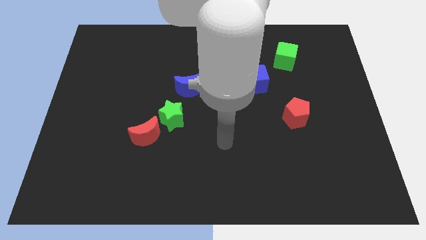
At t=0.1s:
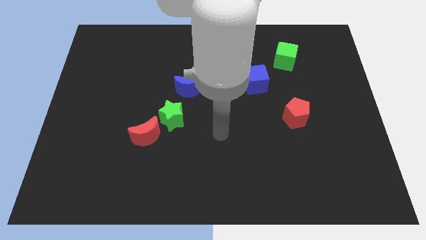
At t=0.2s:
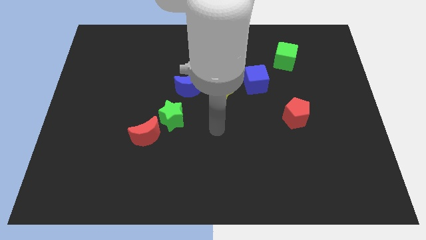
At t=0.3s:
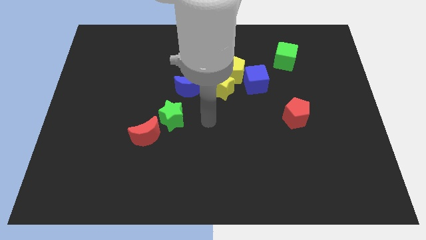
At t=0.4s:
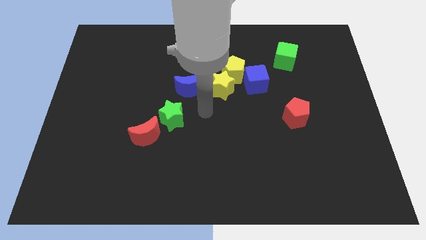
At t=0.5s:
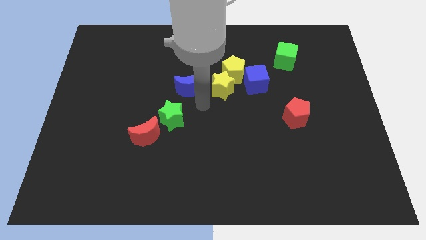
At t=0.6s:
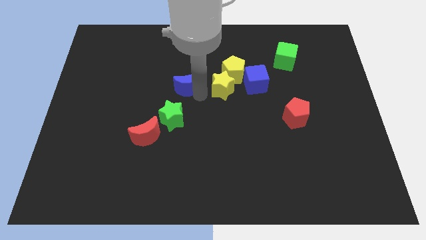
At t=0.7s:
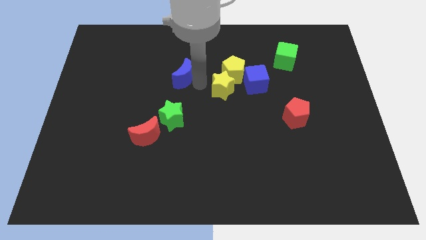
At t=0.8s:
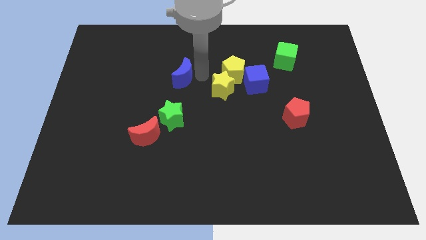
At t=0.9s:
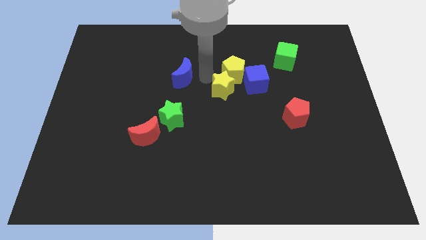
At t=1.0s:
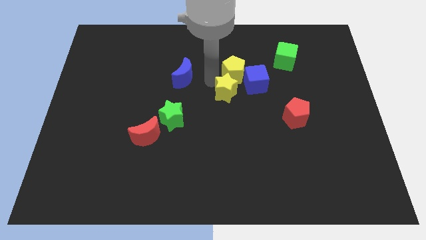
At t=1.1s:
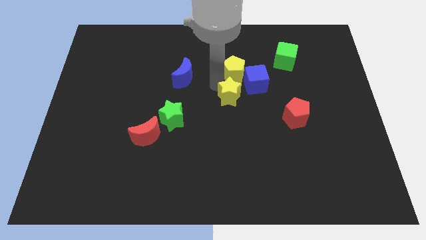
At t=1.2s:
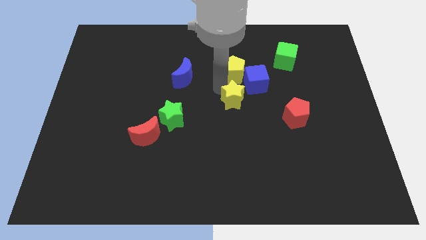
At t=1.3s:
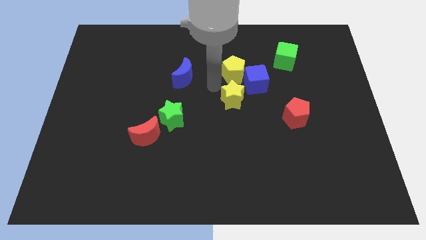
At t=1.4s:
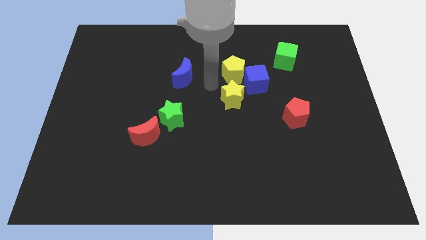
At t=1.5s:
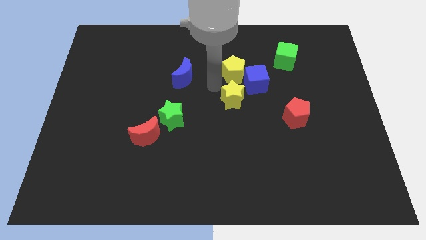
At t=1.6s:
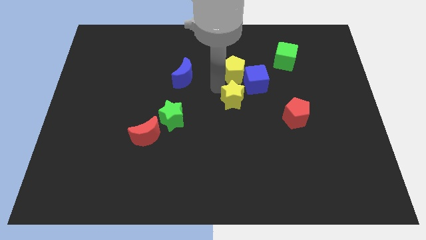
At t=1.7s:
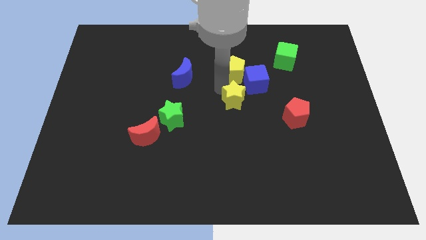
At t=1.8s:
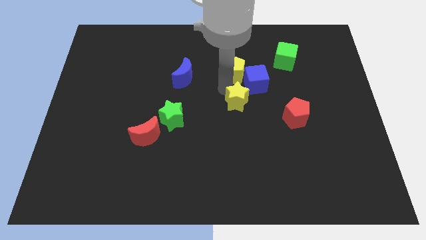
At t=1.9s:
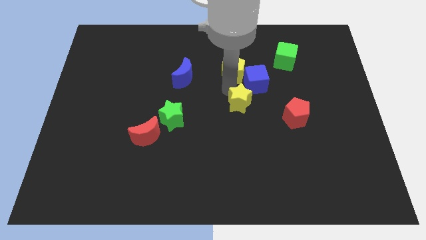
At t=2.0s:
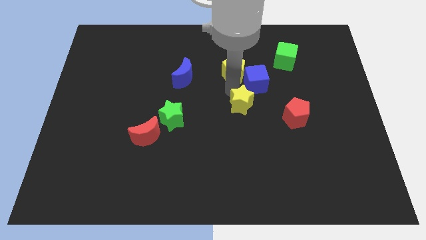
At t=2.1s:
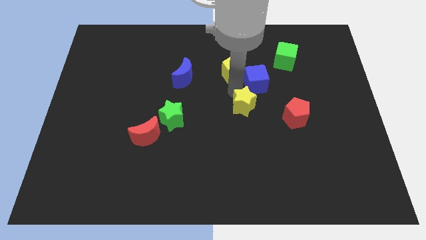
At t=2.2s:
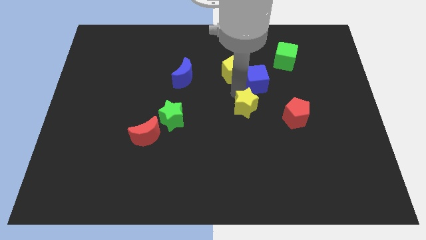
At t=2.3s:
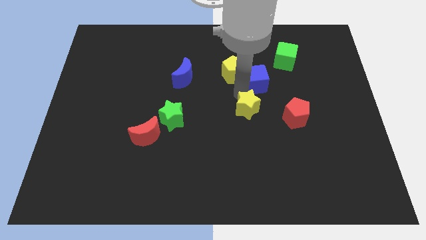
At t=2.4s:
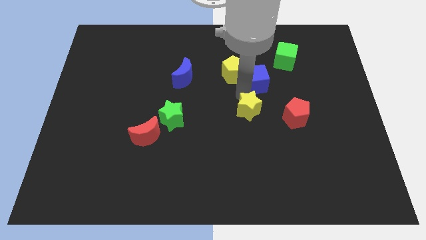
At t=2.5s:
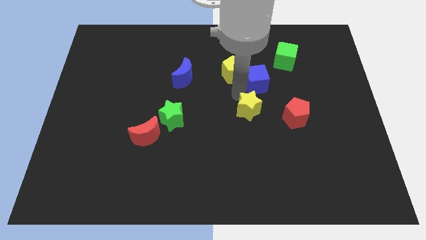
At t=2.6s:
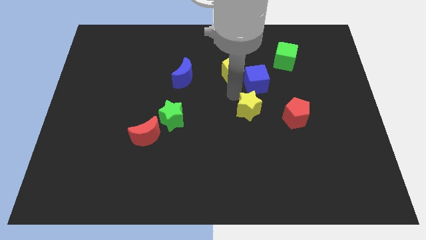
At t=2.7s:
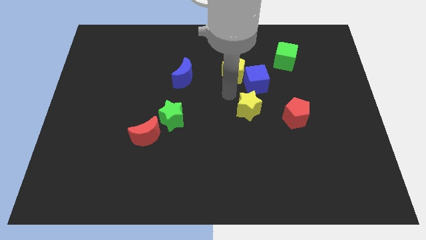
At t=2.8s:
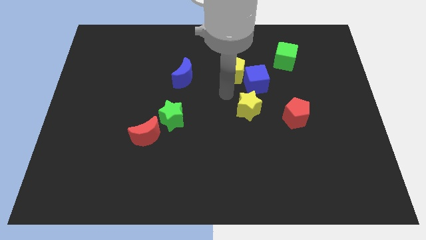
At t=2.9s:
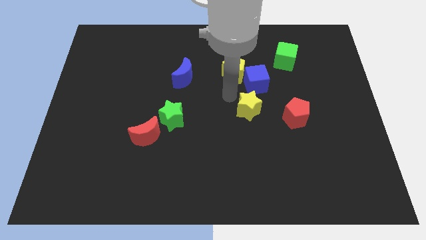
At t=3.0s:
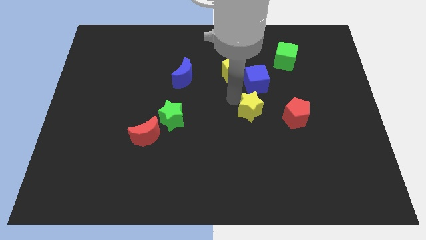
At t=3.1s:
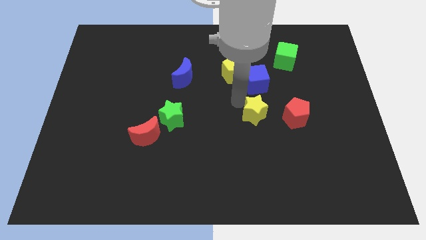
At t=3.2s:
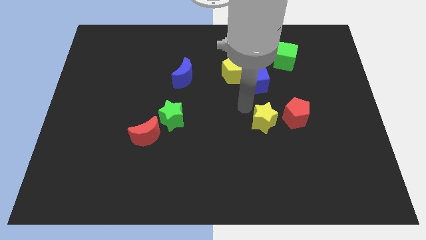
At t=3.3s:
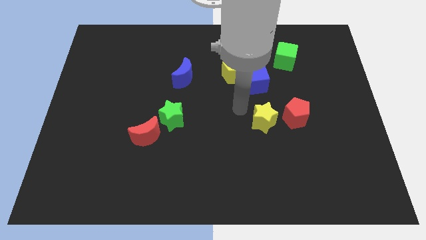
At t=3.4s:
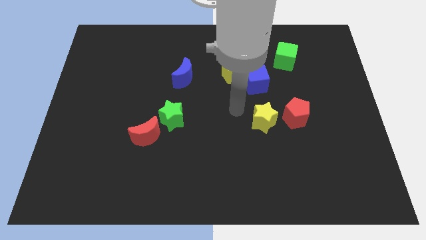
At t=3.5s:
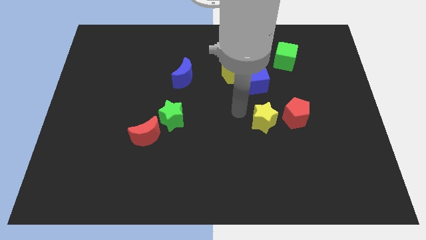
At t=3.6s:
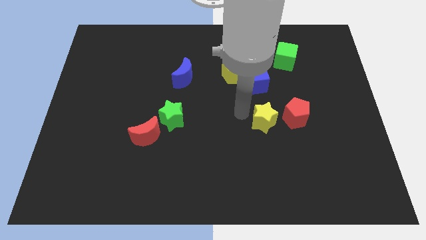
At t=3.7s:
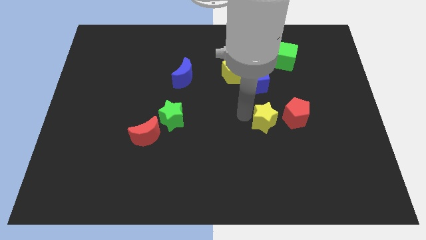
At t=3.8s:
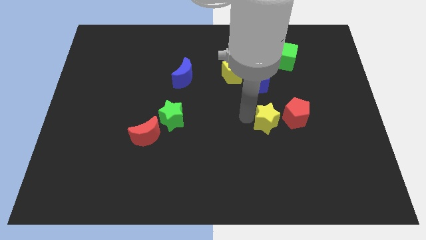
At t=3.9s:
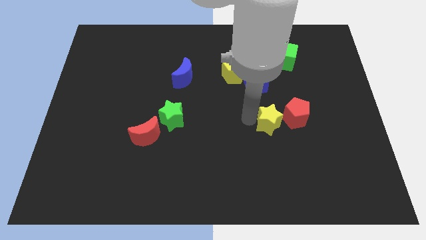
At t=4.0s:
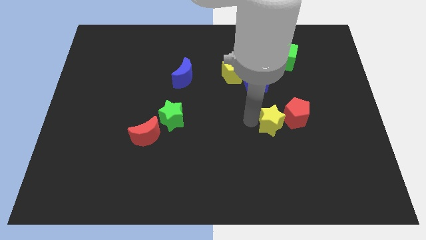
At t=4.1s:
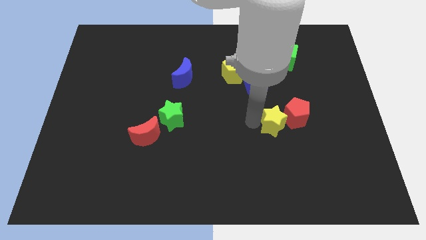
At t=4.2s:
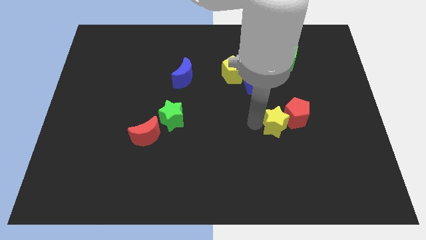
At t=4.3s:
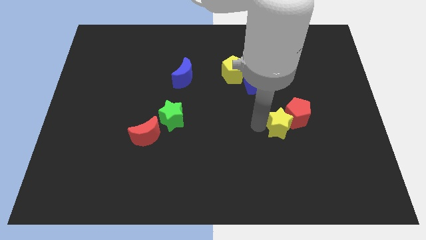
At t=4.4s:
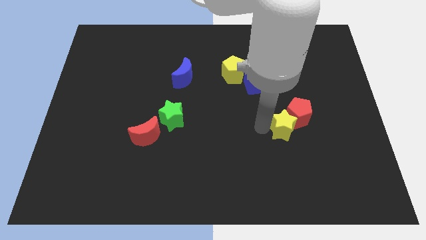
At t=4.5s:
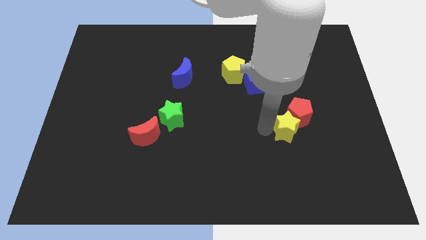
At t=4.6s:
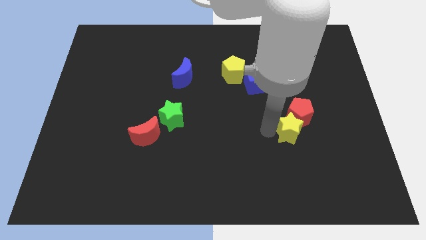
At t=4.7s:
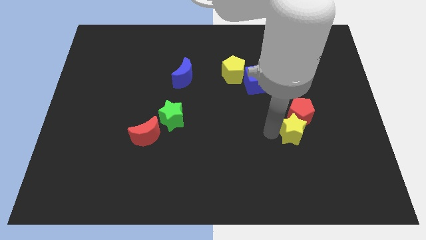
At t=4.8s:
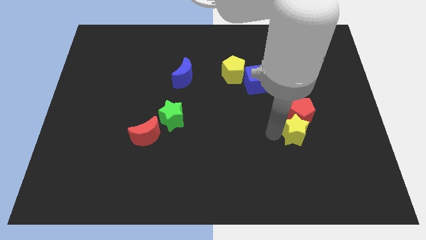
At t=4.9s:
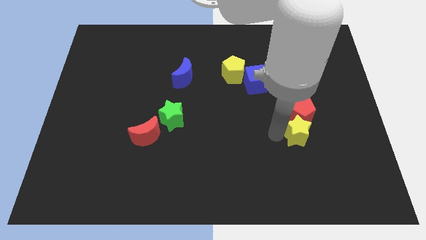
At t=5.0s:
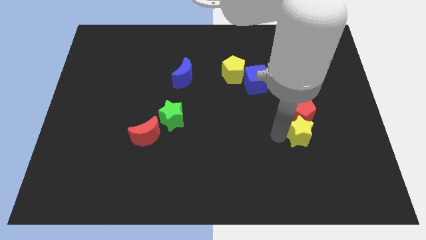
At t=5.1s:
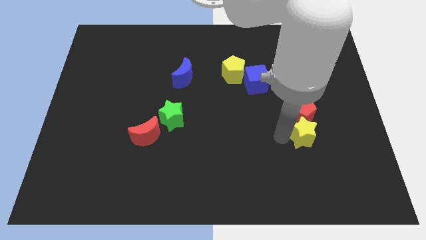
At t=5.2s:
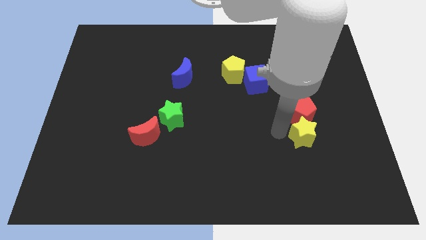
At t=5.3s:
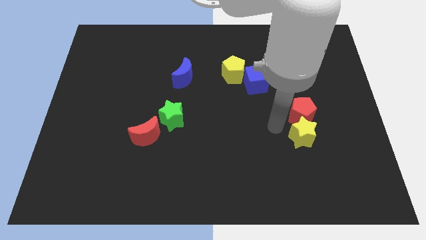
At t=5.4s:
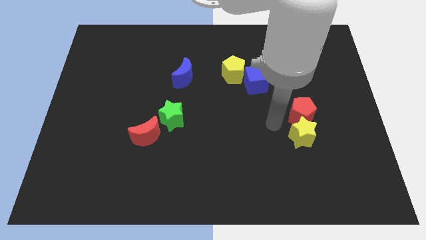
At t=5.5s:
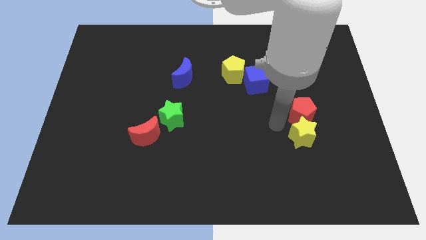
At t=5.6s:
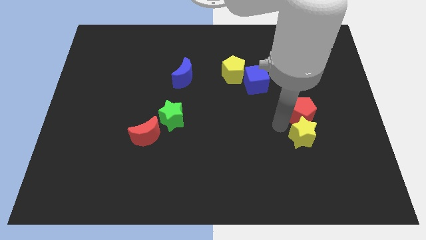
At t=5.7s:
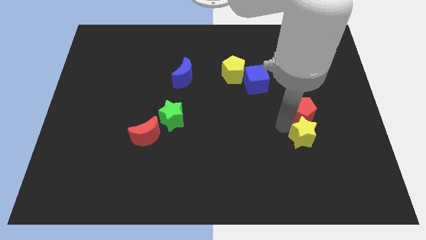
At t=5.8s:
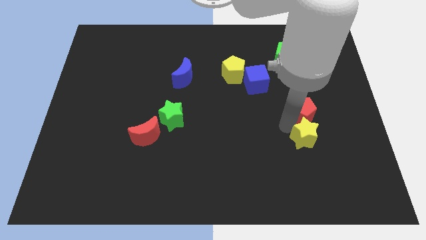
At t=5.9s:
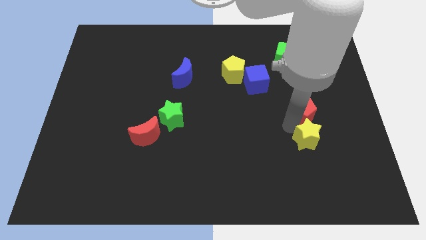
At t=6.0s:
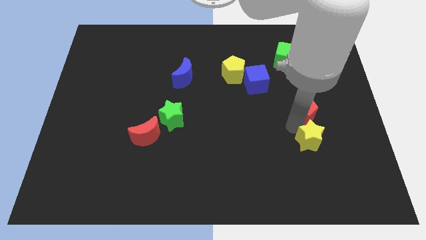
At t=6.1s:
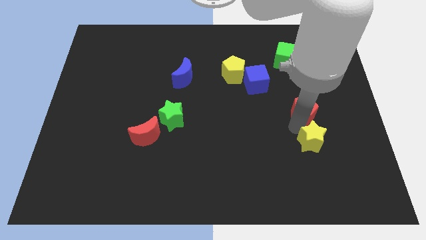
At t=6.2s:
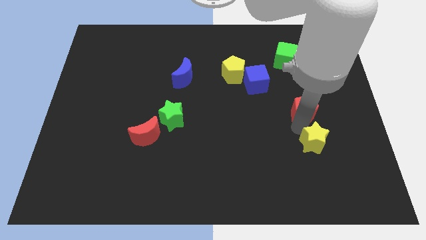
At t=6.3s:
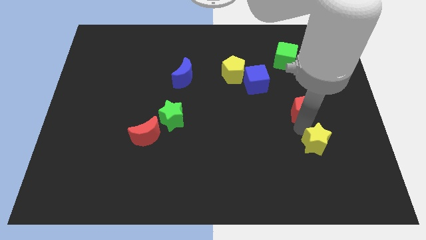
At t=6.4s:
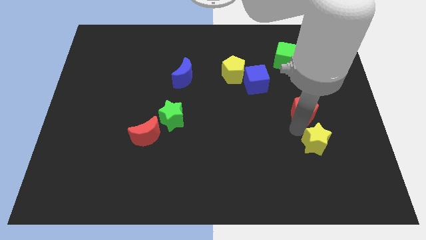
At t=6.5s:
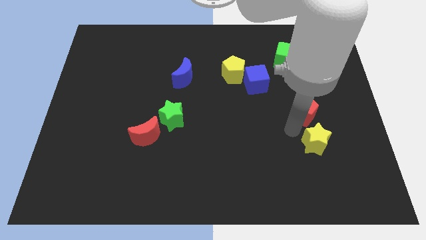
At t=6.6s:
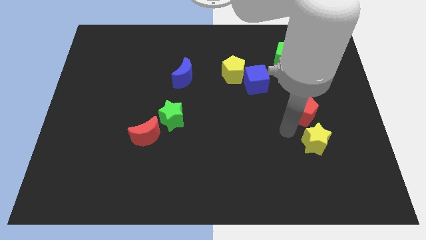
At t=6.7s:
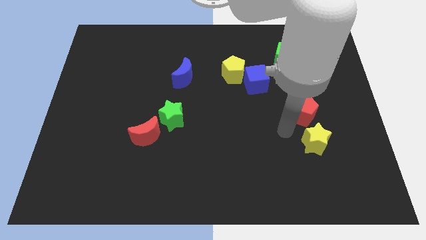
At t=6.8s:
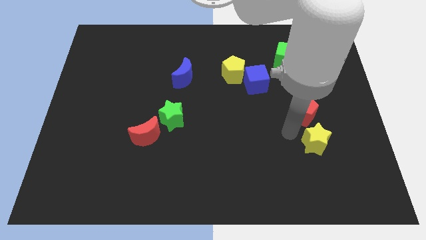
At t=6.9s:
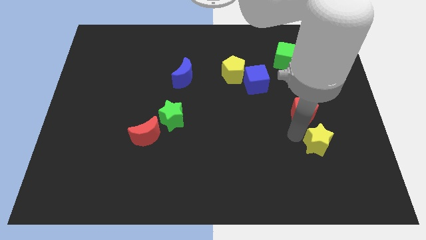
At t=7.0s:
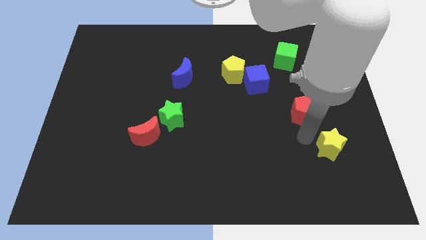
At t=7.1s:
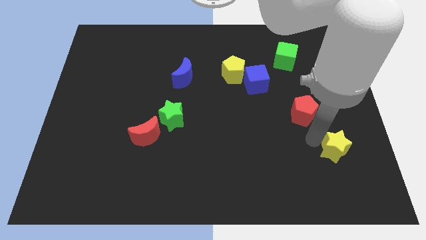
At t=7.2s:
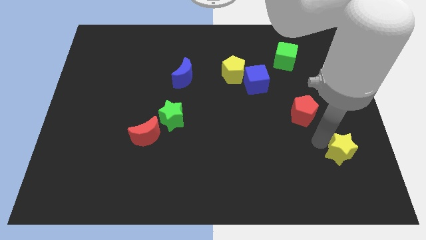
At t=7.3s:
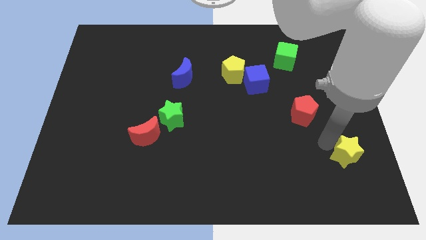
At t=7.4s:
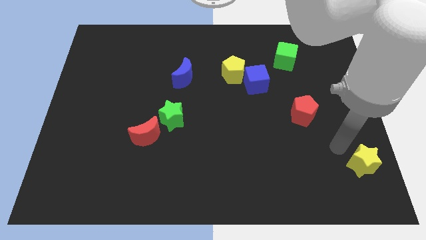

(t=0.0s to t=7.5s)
slide the yellow star to the lower right corner
